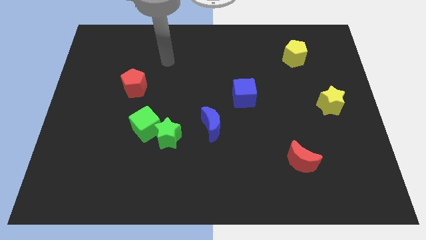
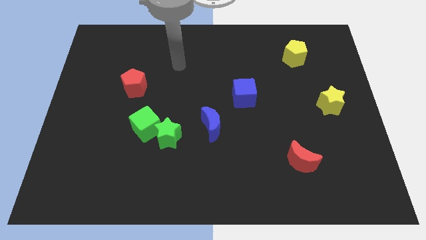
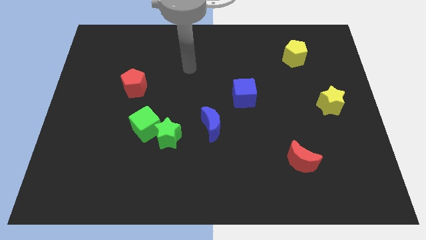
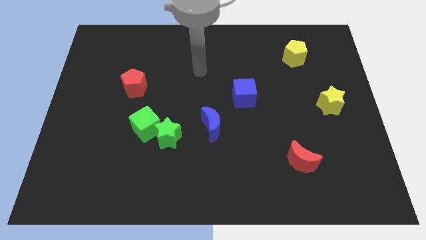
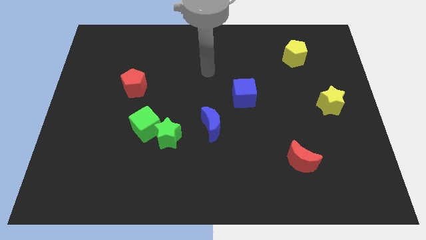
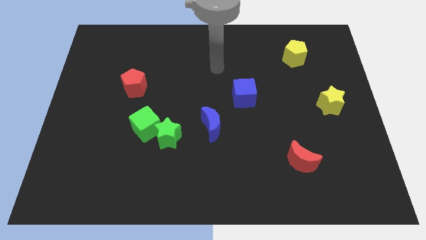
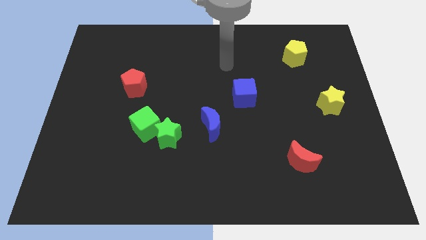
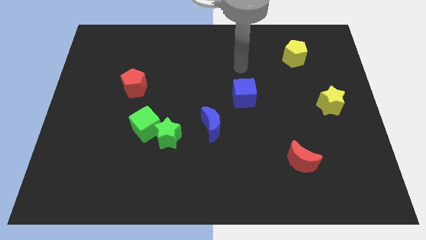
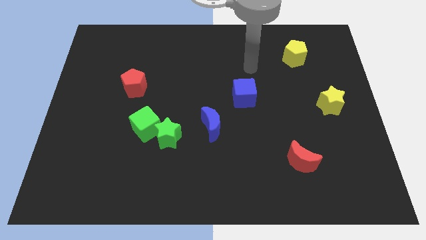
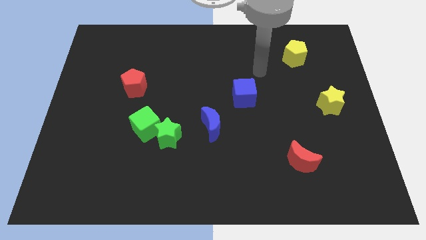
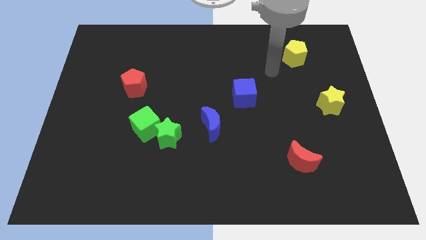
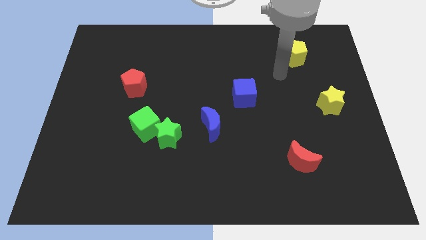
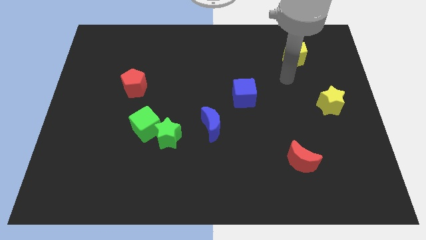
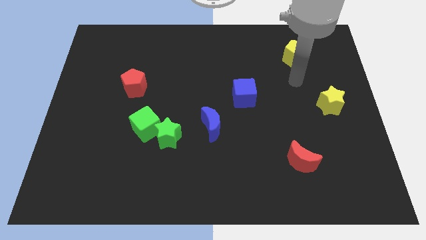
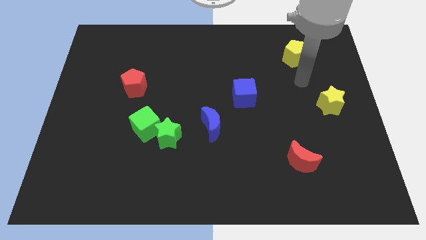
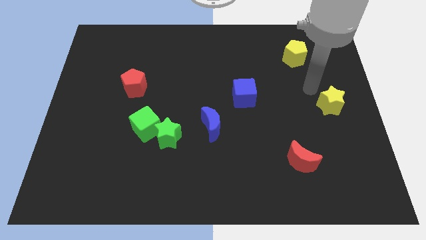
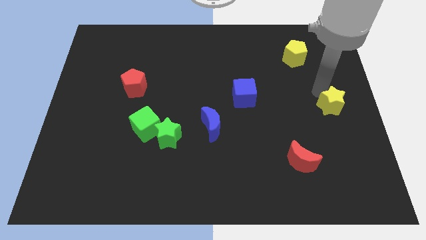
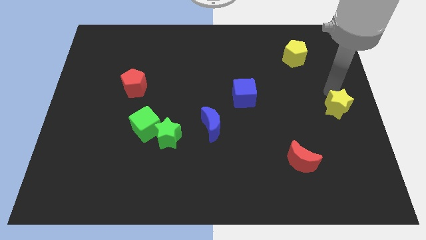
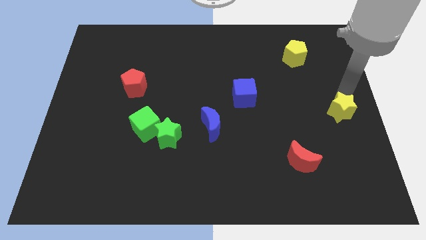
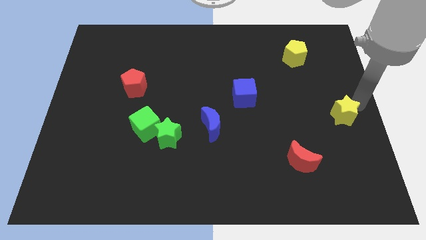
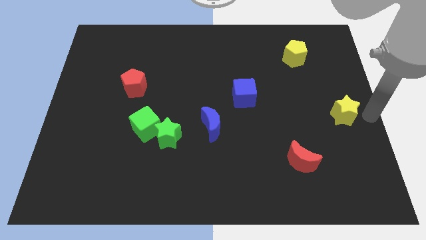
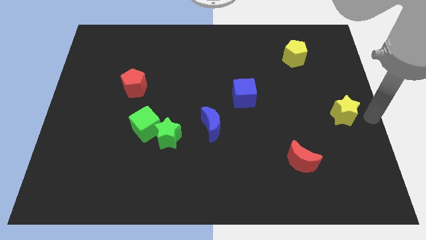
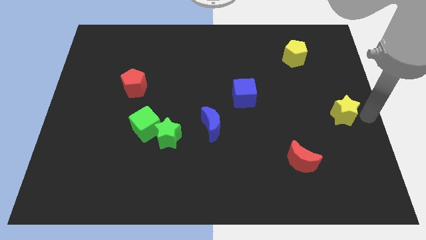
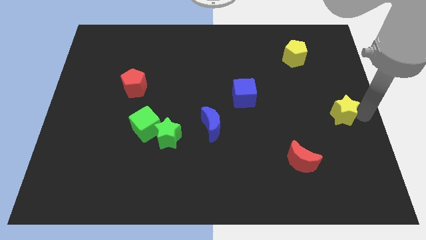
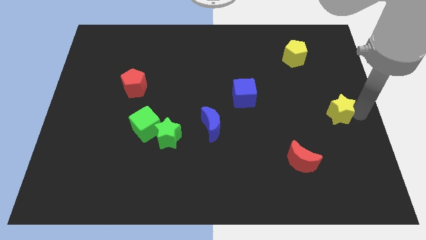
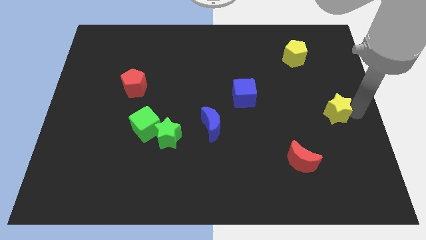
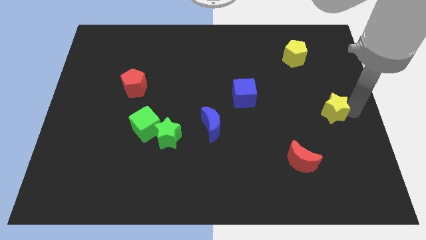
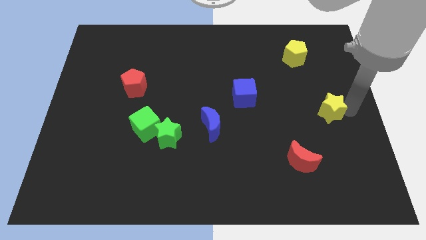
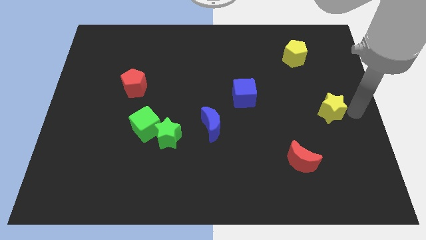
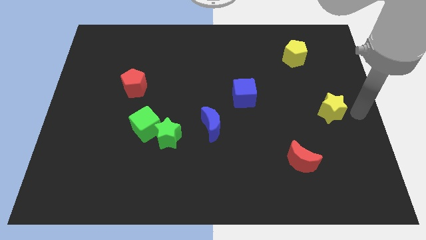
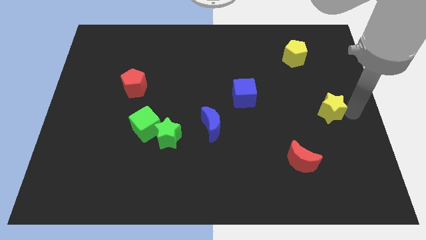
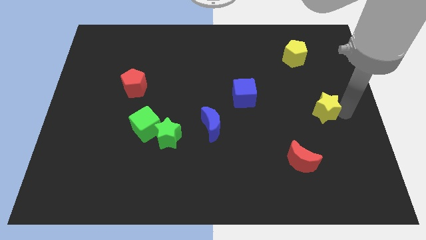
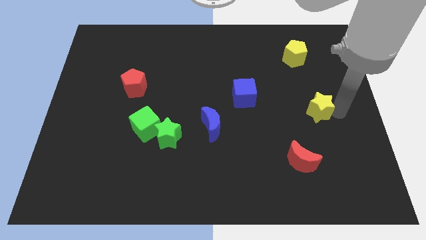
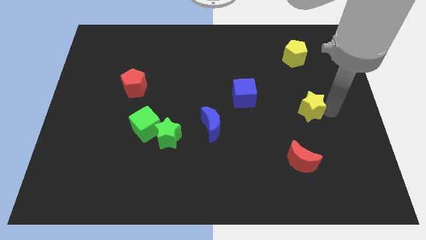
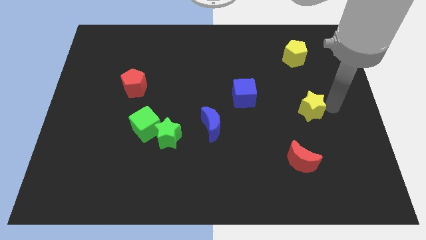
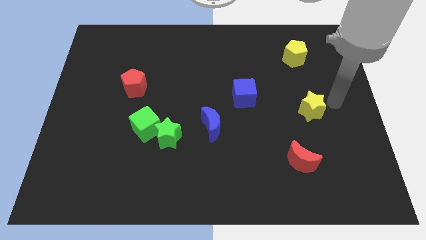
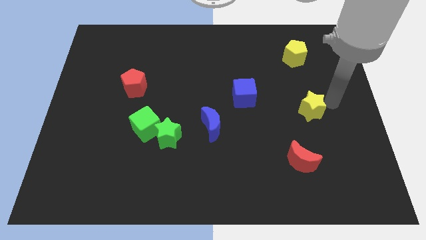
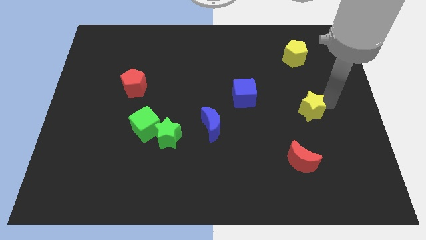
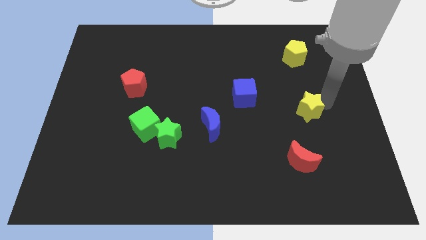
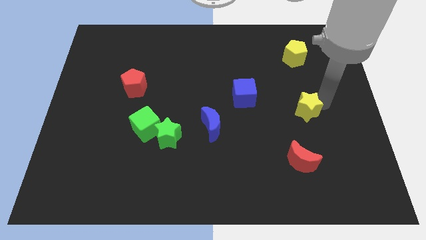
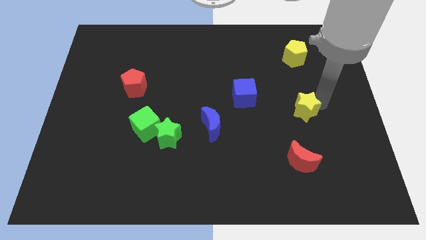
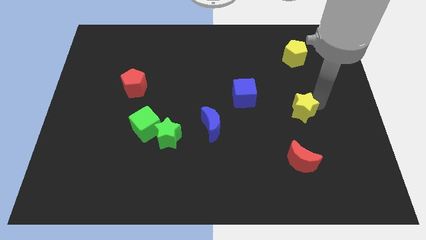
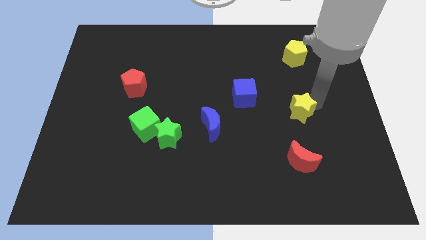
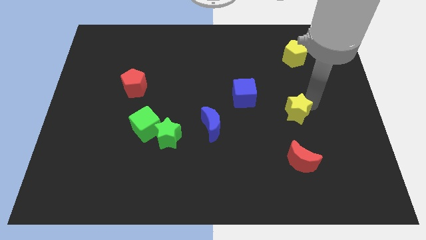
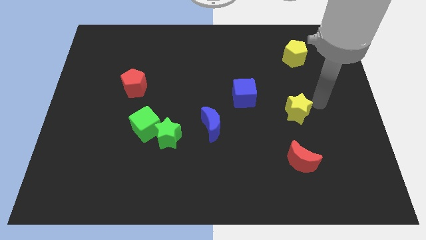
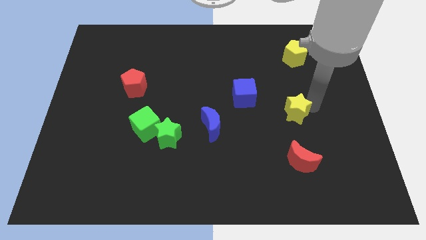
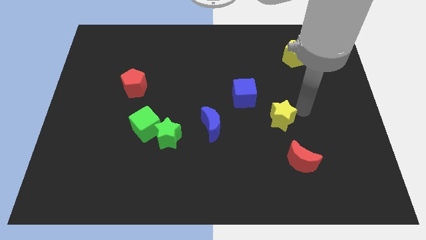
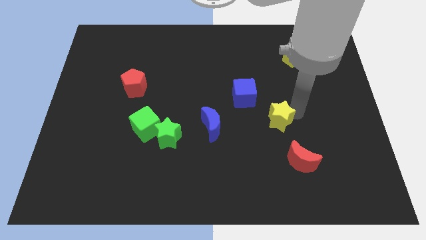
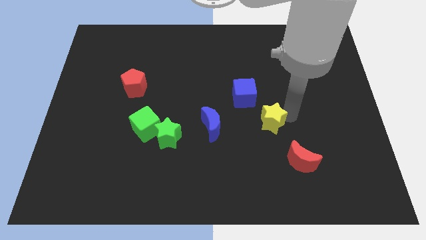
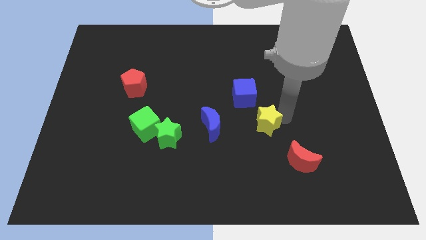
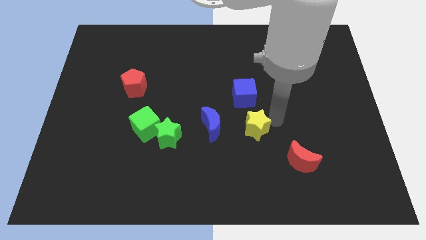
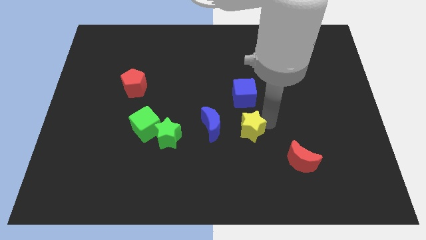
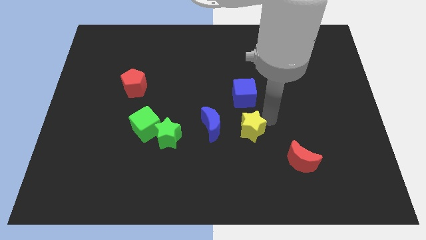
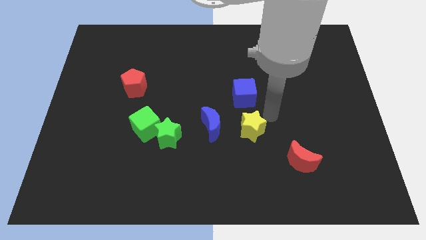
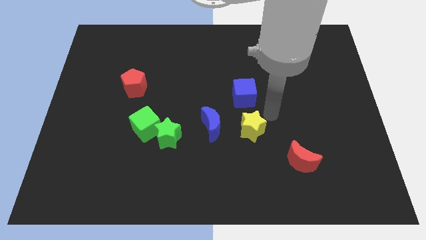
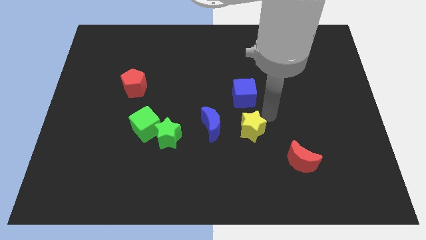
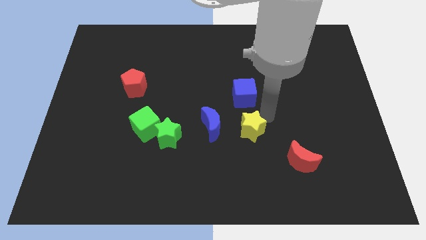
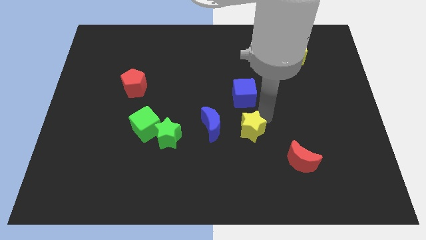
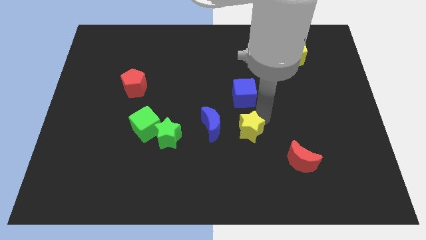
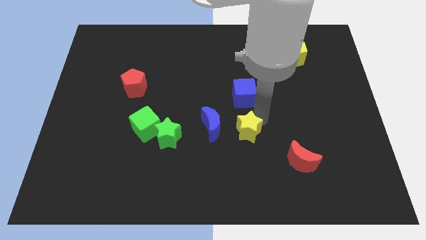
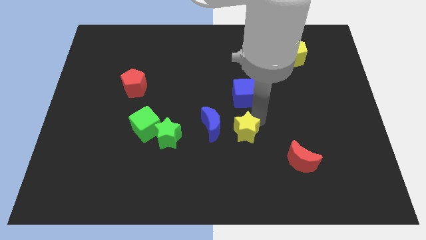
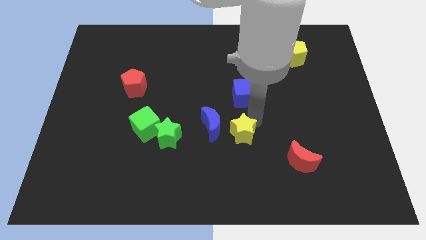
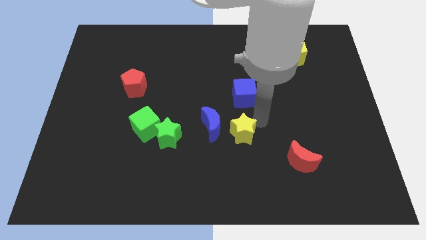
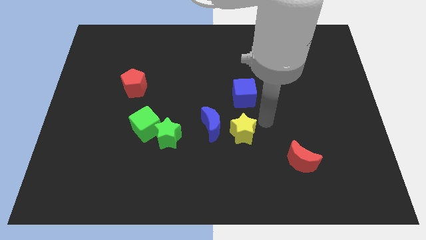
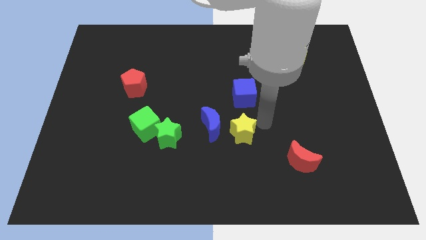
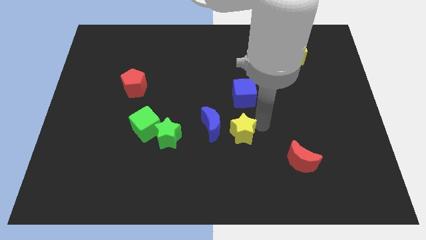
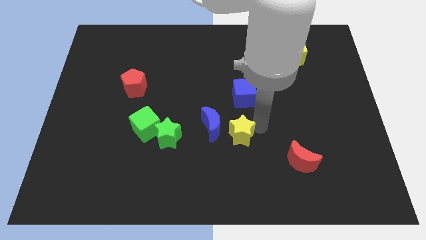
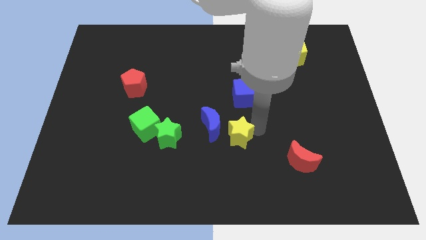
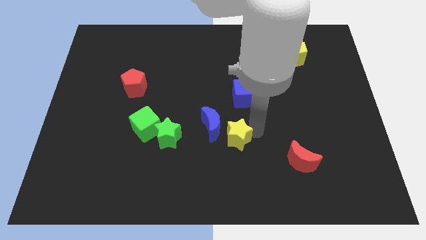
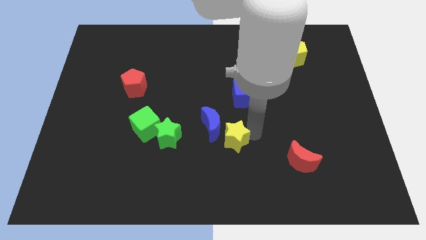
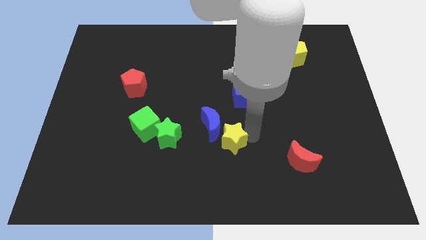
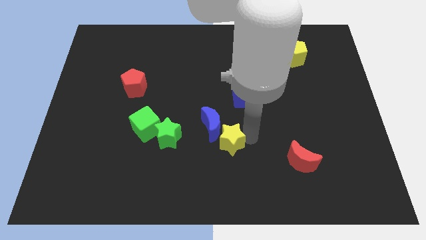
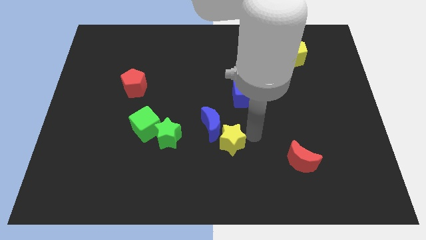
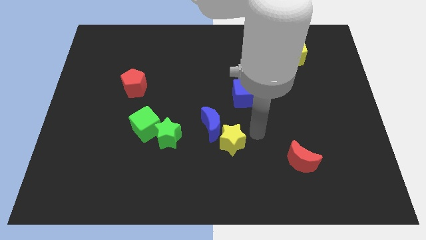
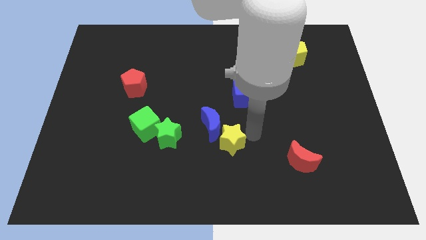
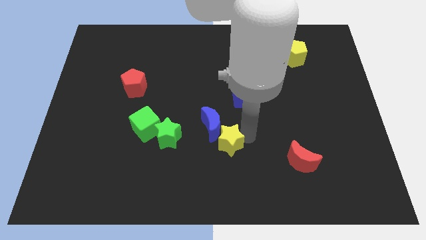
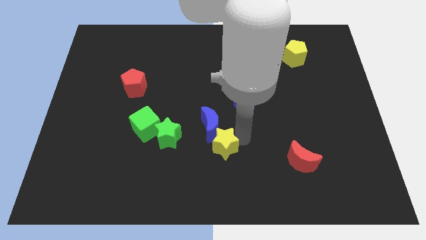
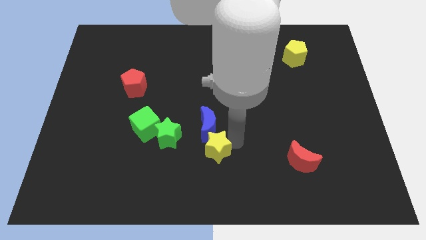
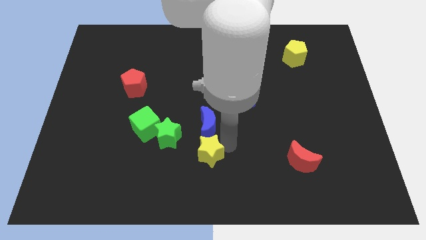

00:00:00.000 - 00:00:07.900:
push the yellow star diagonally down and to the right of the green star
